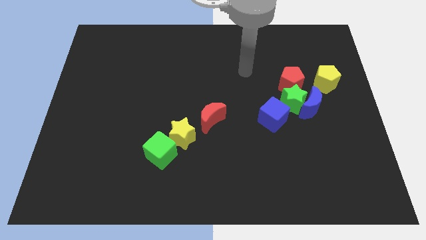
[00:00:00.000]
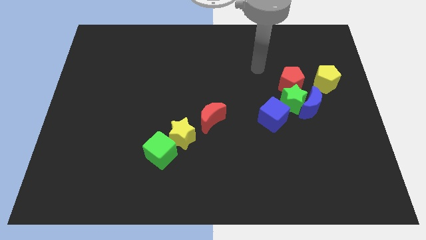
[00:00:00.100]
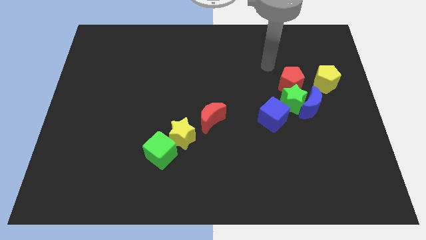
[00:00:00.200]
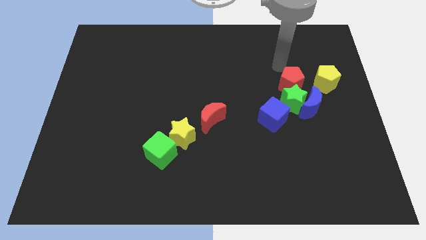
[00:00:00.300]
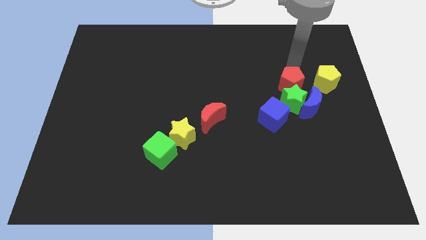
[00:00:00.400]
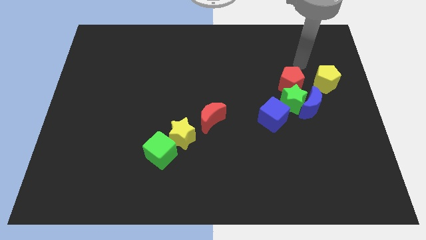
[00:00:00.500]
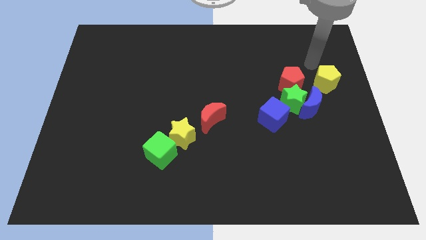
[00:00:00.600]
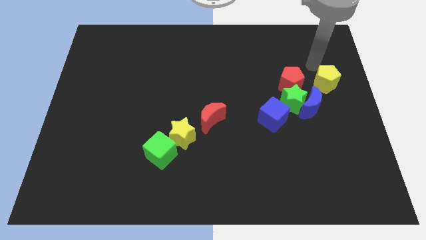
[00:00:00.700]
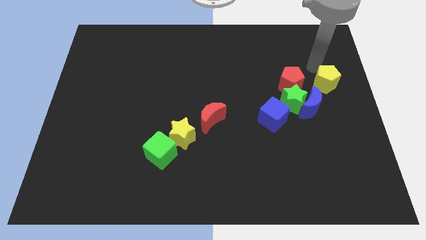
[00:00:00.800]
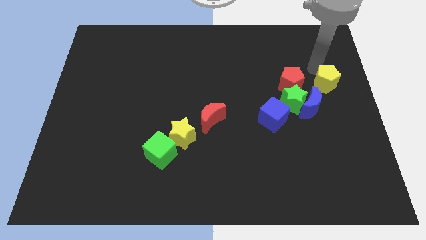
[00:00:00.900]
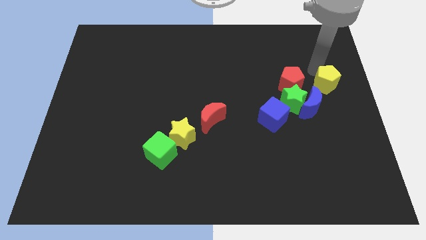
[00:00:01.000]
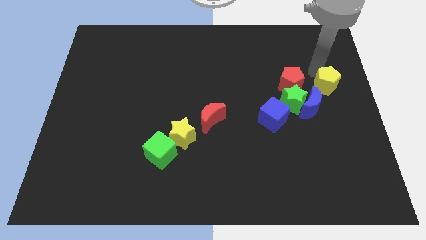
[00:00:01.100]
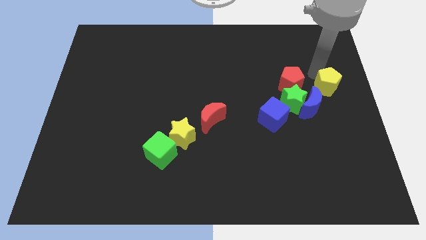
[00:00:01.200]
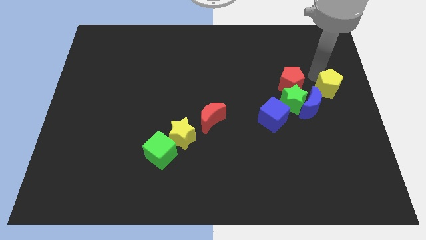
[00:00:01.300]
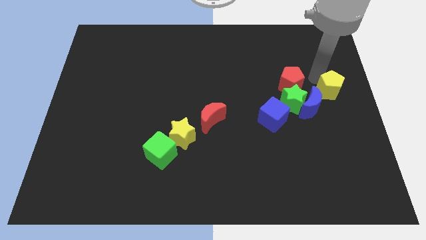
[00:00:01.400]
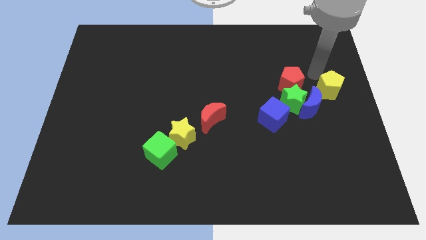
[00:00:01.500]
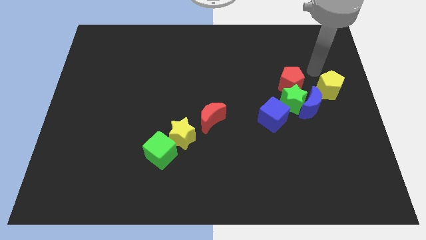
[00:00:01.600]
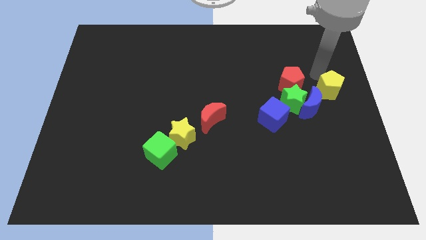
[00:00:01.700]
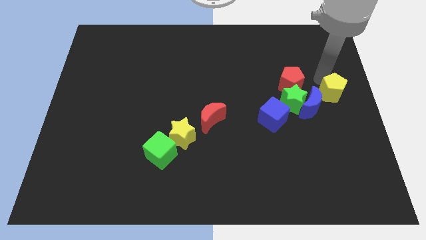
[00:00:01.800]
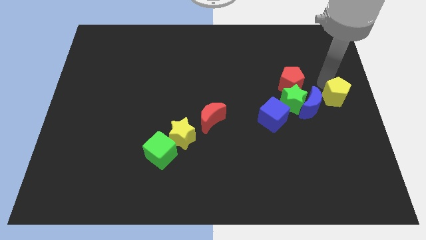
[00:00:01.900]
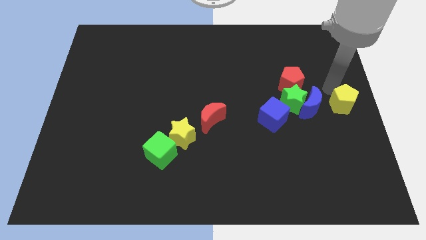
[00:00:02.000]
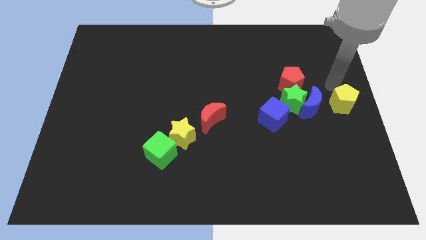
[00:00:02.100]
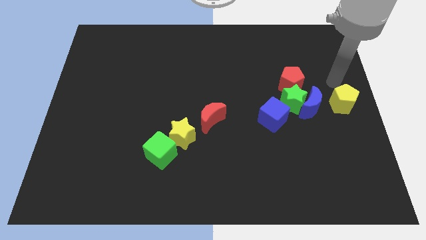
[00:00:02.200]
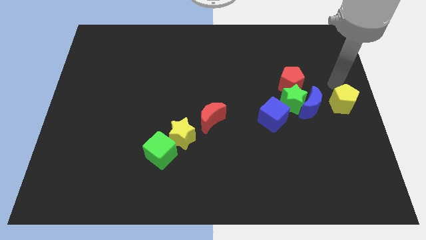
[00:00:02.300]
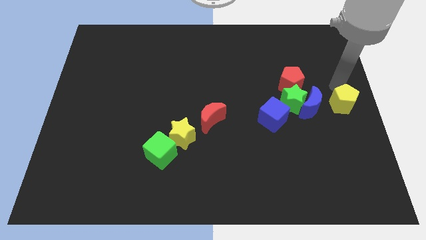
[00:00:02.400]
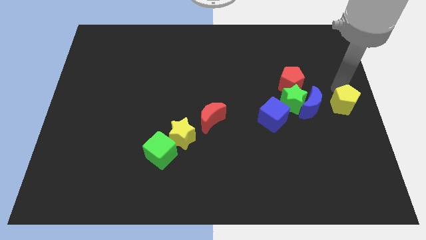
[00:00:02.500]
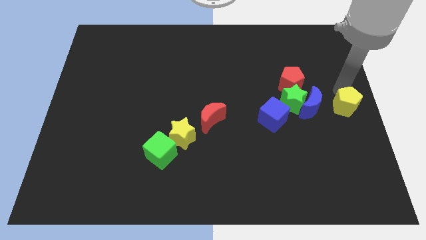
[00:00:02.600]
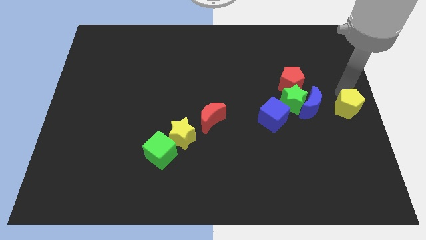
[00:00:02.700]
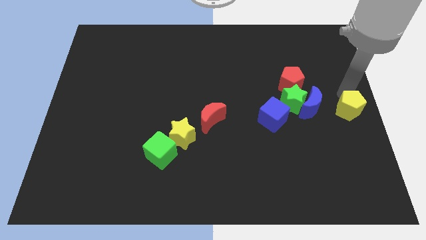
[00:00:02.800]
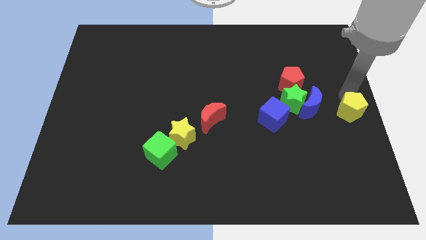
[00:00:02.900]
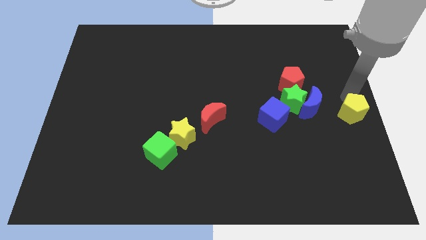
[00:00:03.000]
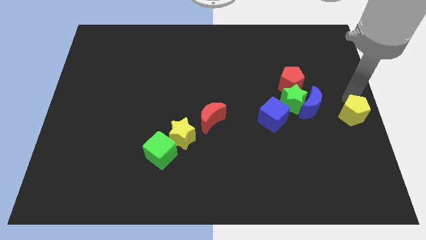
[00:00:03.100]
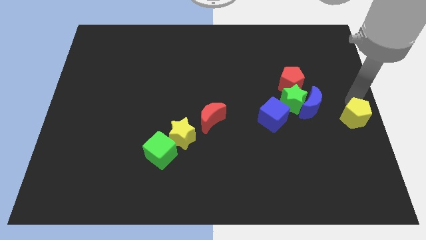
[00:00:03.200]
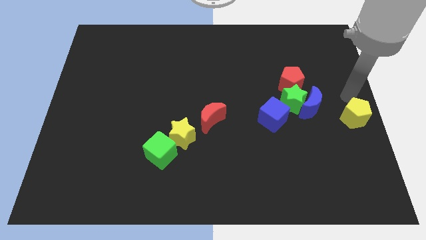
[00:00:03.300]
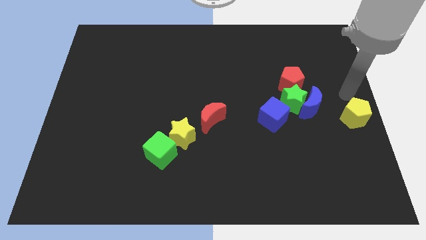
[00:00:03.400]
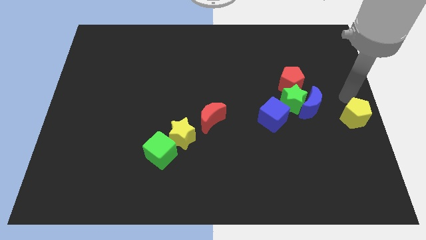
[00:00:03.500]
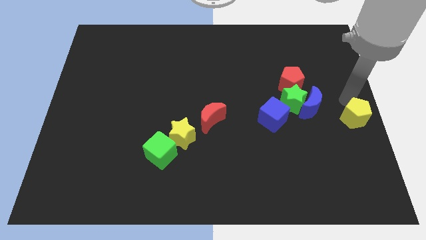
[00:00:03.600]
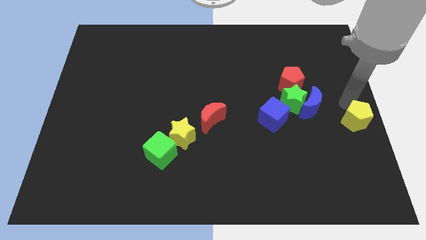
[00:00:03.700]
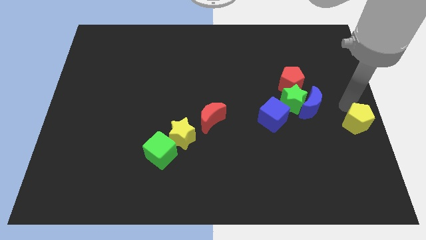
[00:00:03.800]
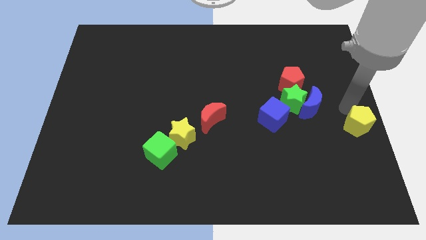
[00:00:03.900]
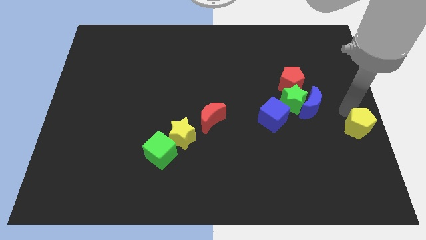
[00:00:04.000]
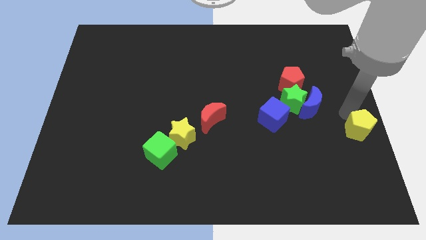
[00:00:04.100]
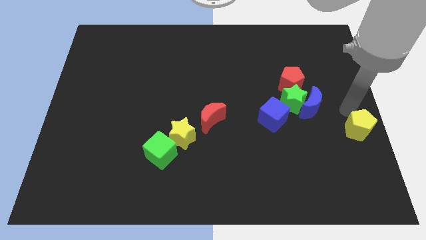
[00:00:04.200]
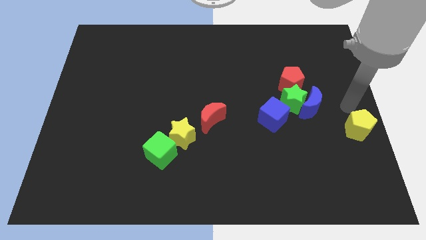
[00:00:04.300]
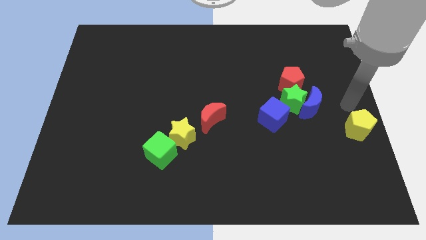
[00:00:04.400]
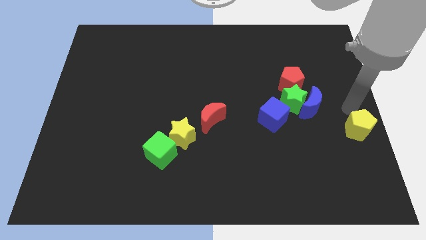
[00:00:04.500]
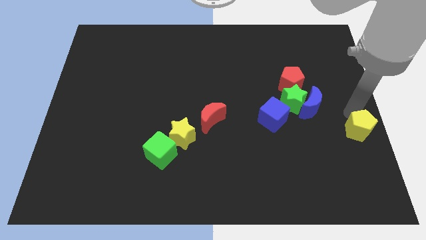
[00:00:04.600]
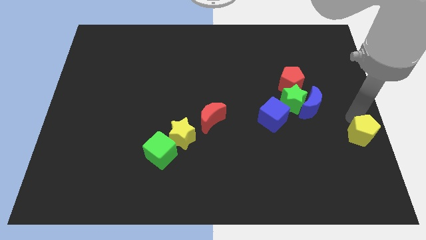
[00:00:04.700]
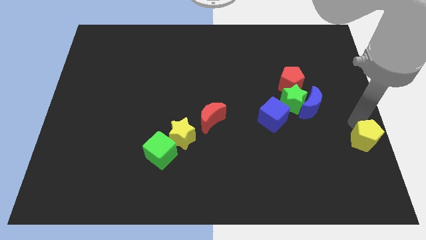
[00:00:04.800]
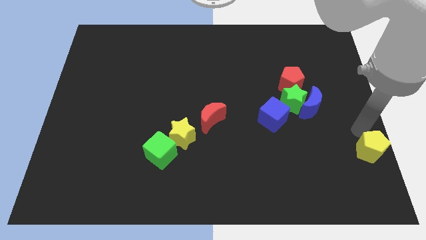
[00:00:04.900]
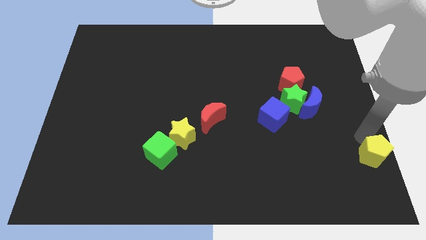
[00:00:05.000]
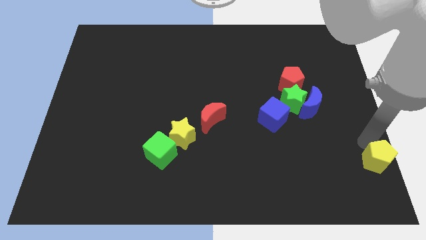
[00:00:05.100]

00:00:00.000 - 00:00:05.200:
push the yellow pentagon to the bottom right corner

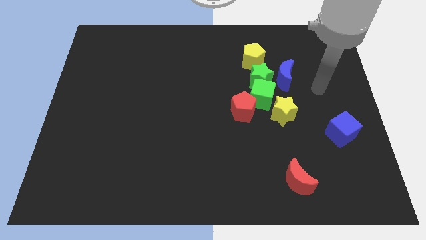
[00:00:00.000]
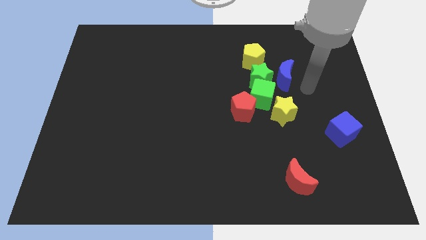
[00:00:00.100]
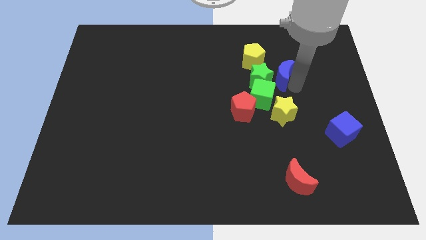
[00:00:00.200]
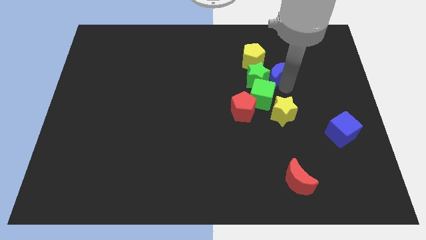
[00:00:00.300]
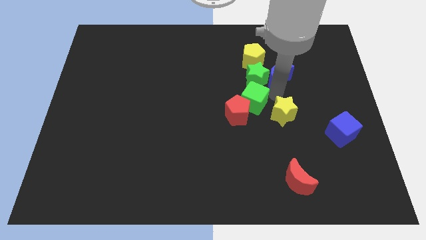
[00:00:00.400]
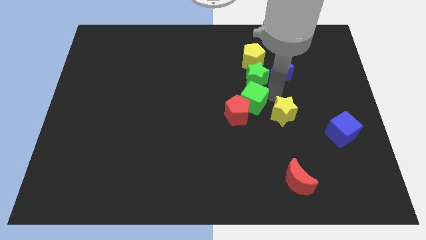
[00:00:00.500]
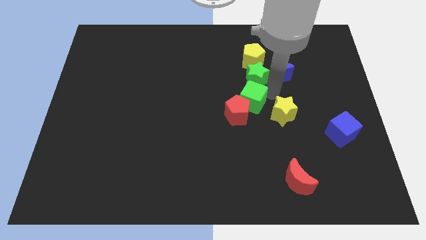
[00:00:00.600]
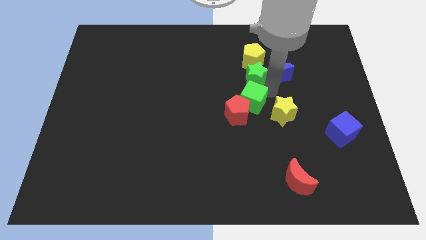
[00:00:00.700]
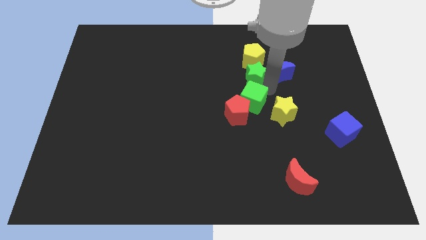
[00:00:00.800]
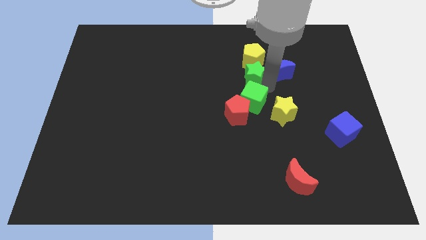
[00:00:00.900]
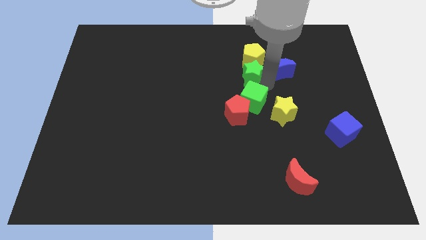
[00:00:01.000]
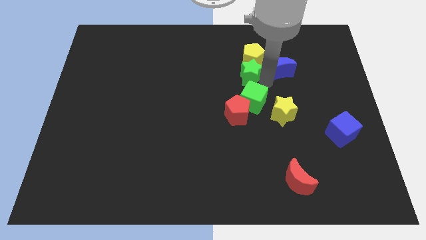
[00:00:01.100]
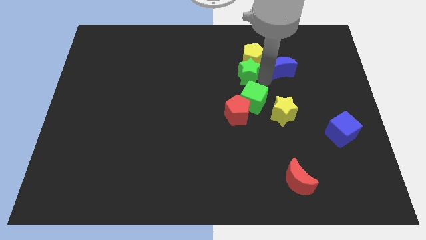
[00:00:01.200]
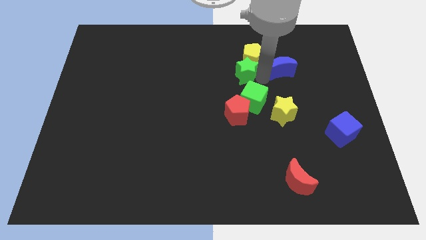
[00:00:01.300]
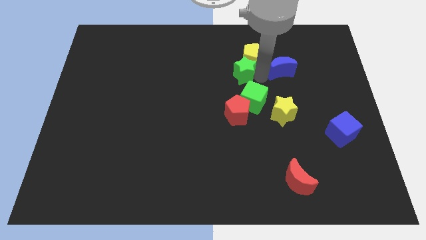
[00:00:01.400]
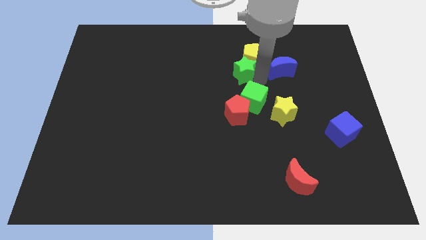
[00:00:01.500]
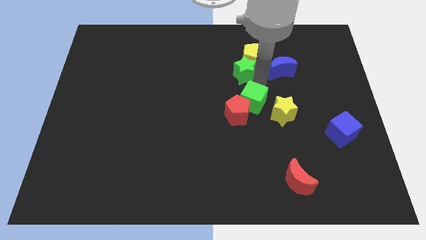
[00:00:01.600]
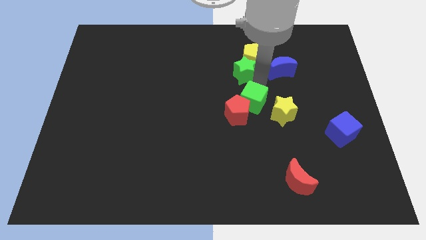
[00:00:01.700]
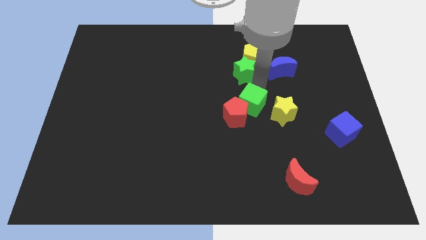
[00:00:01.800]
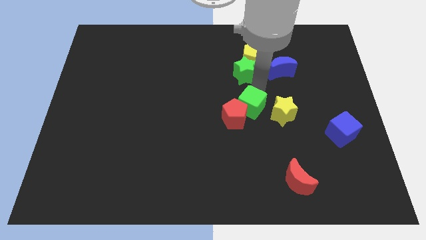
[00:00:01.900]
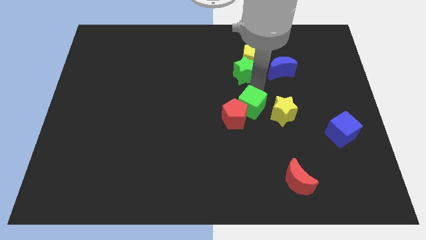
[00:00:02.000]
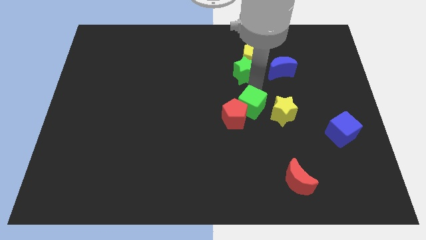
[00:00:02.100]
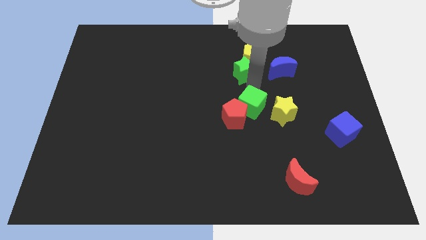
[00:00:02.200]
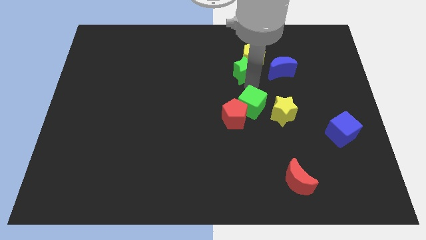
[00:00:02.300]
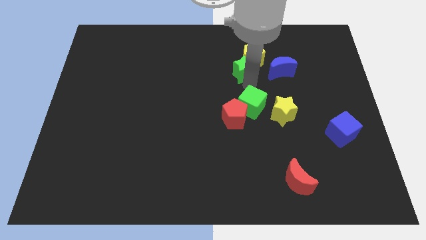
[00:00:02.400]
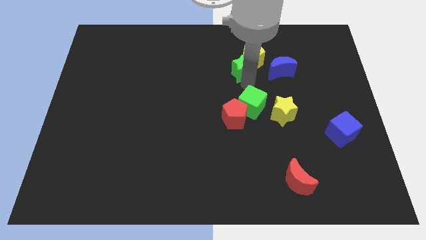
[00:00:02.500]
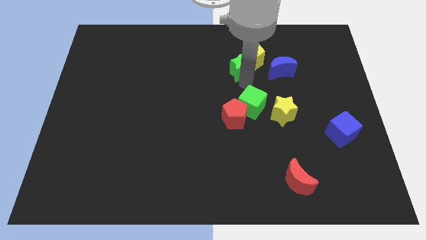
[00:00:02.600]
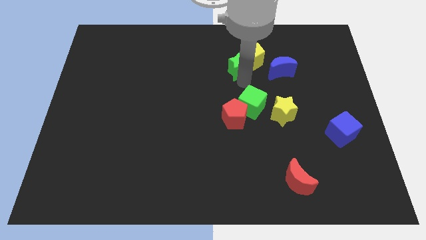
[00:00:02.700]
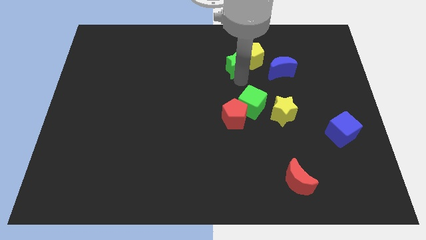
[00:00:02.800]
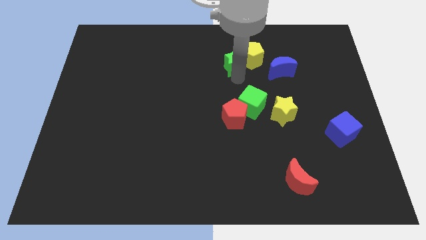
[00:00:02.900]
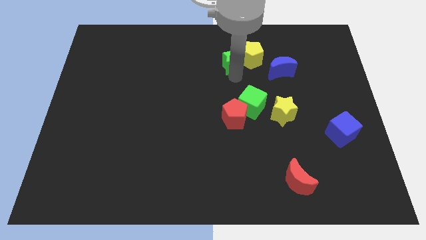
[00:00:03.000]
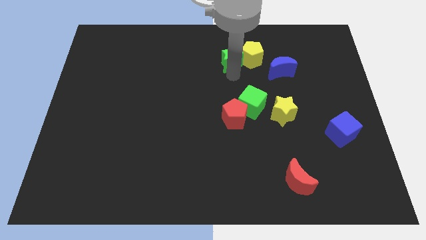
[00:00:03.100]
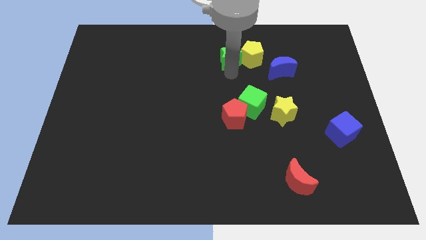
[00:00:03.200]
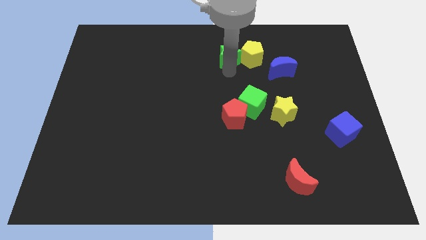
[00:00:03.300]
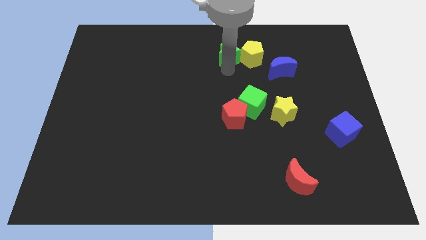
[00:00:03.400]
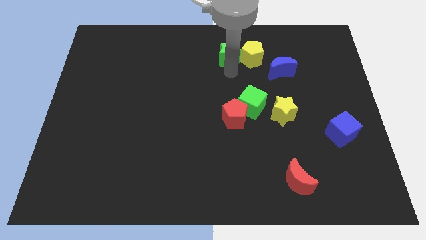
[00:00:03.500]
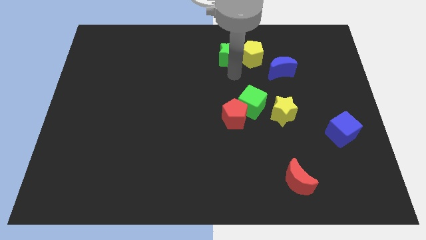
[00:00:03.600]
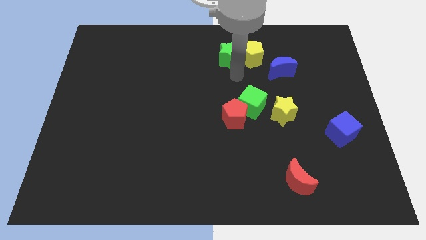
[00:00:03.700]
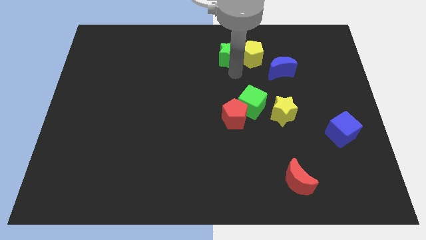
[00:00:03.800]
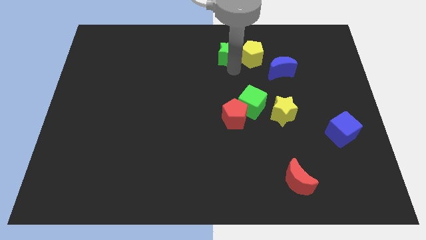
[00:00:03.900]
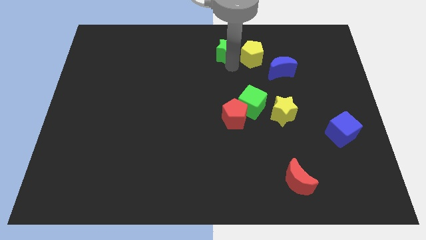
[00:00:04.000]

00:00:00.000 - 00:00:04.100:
put the green star to the top
